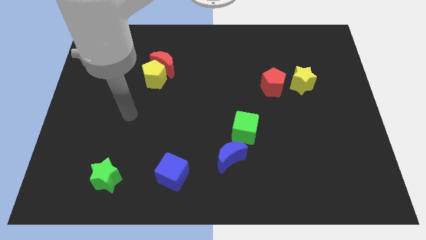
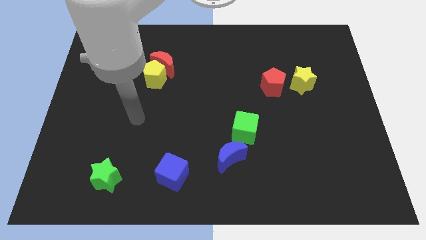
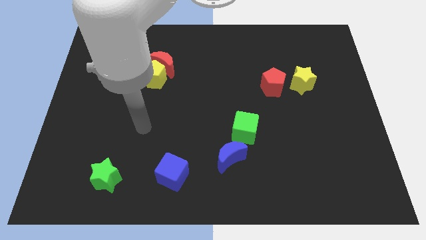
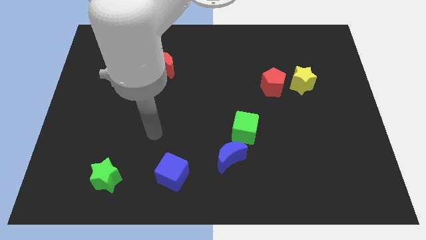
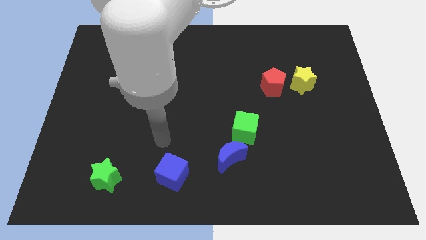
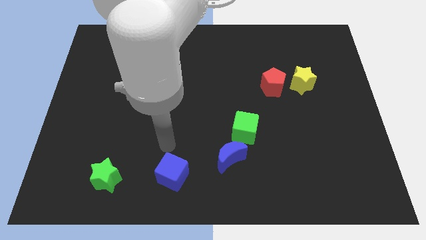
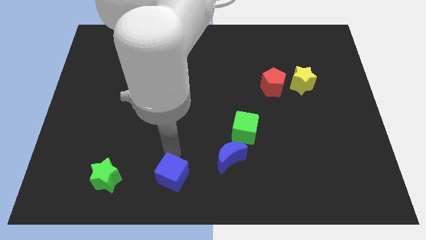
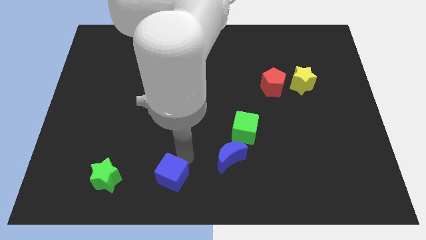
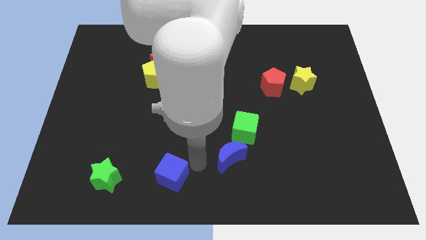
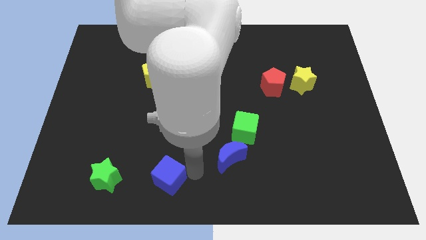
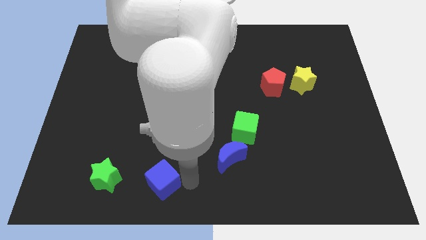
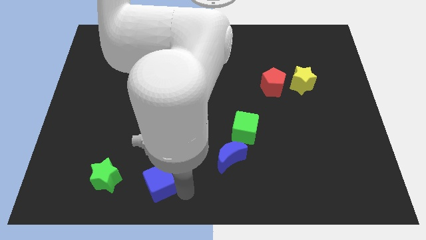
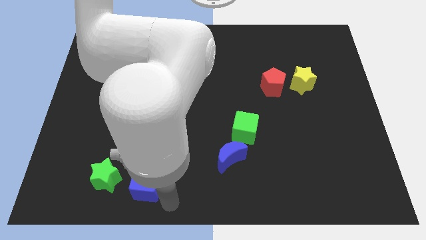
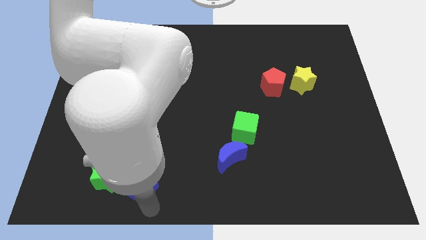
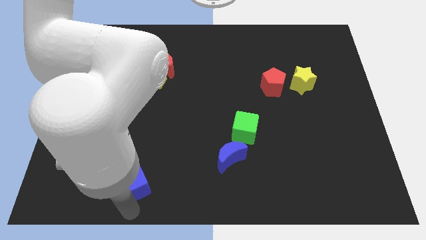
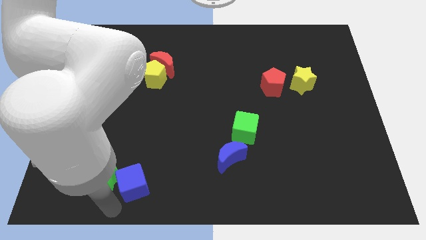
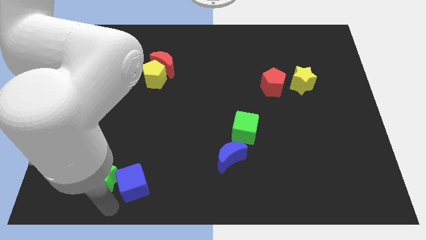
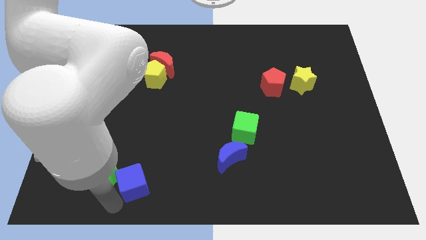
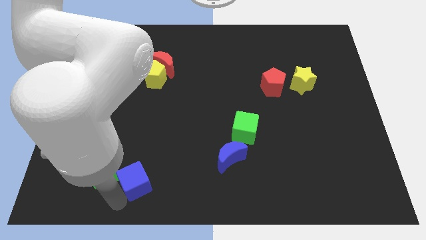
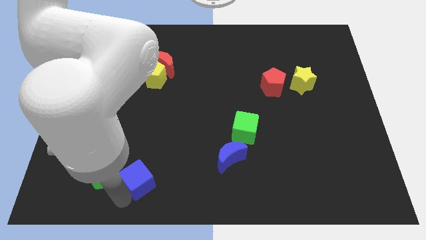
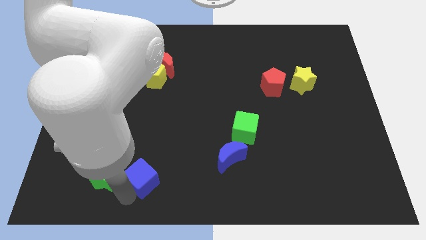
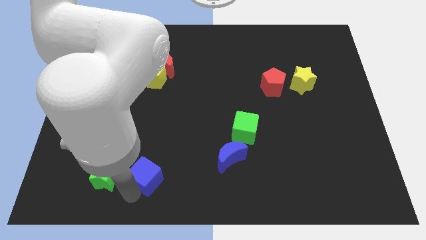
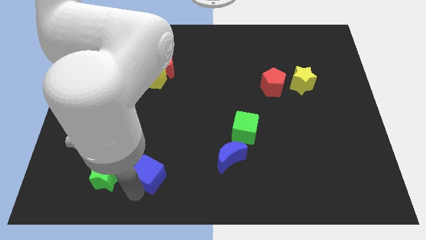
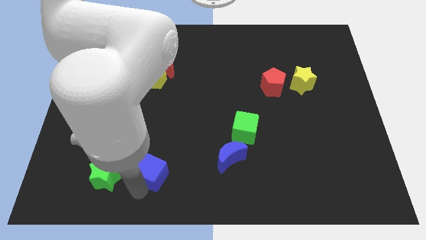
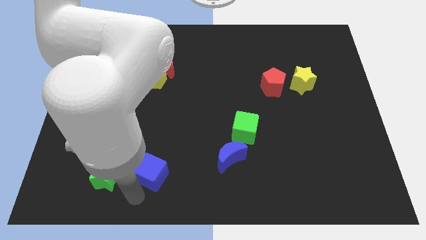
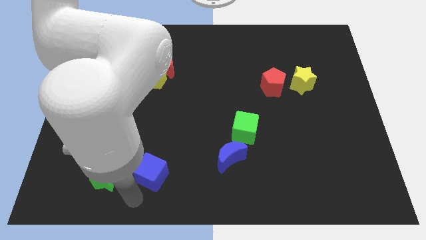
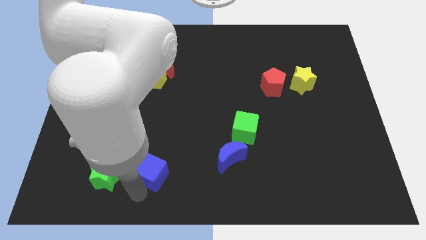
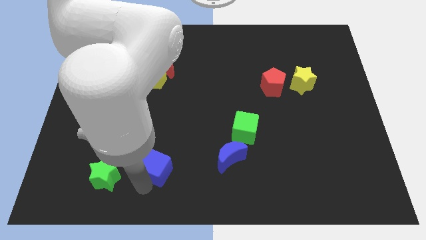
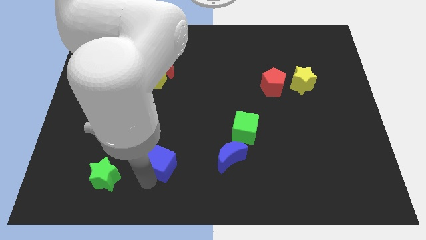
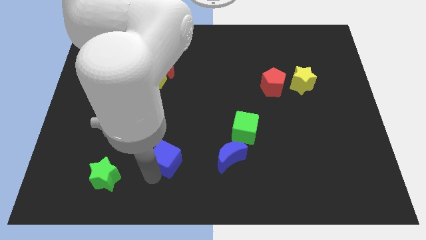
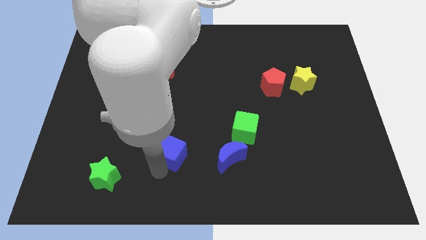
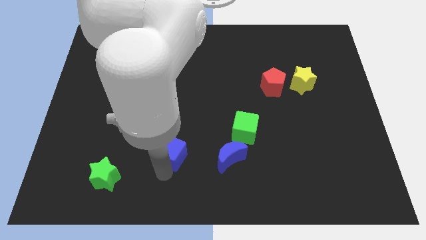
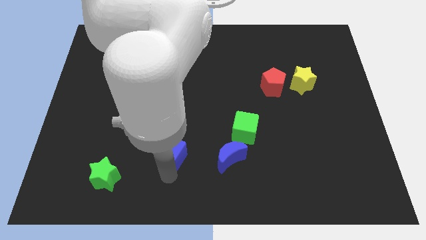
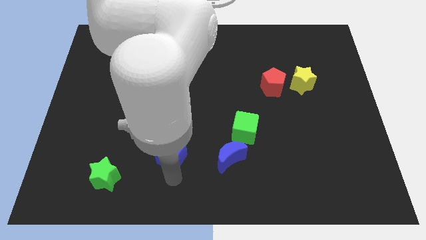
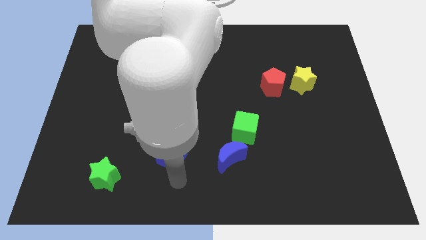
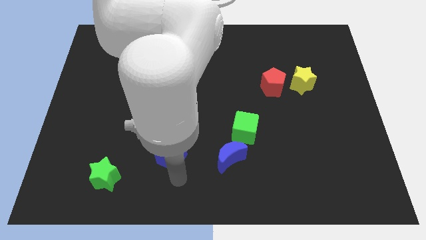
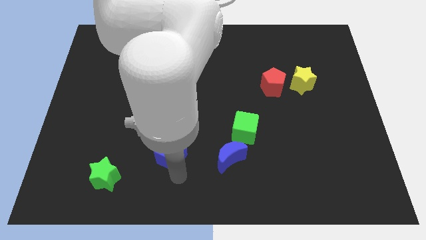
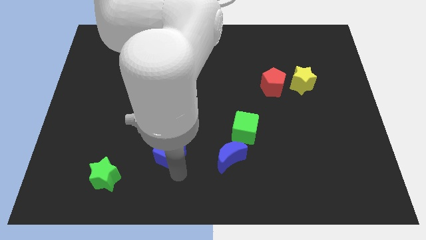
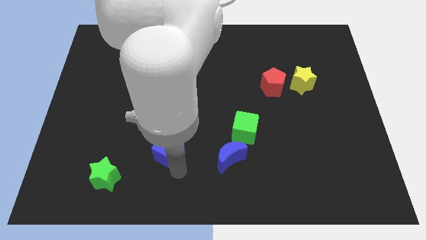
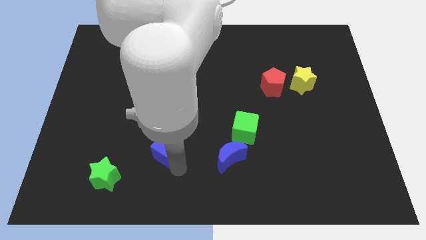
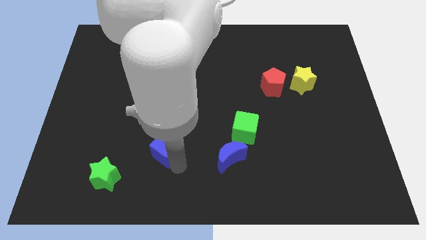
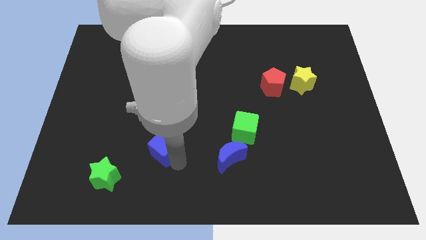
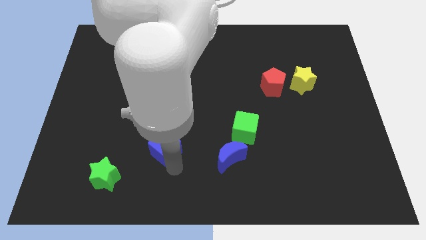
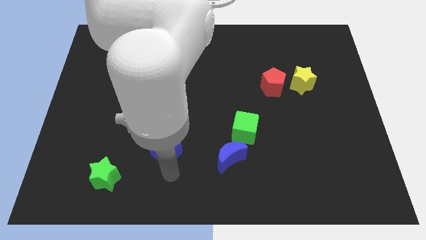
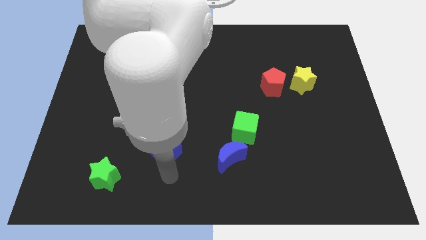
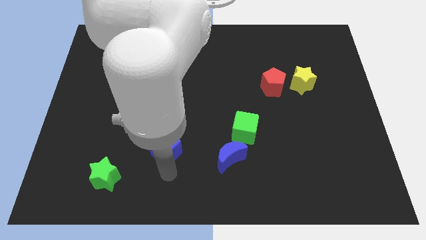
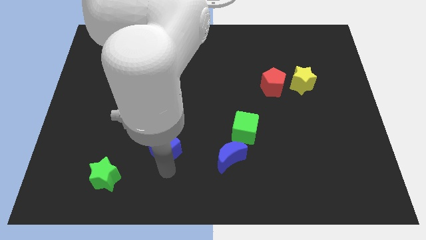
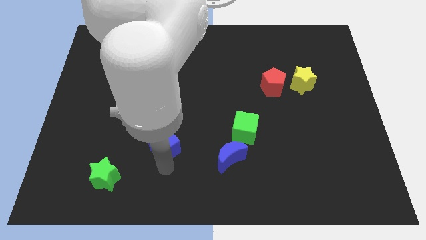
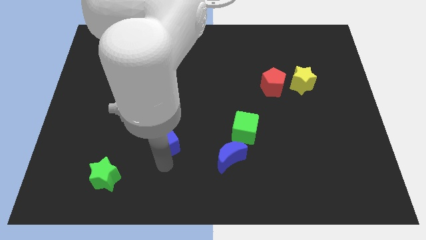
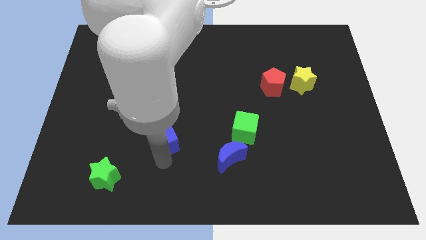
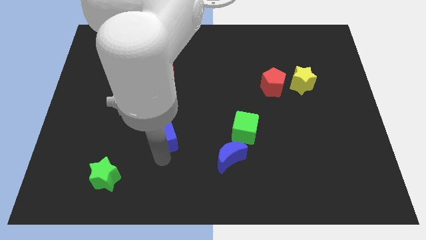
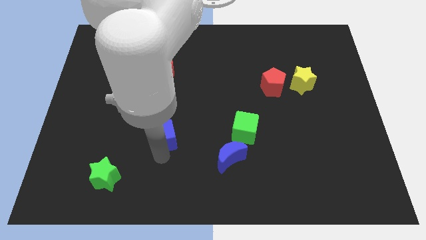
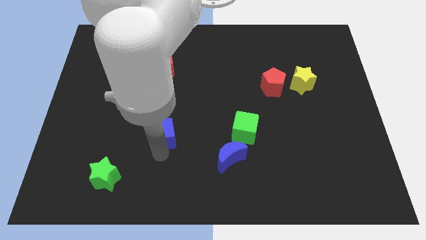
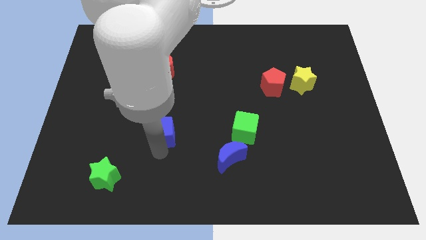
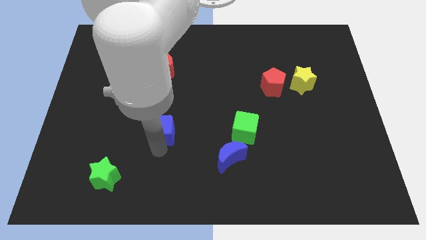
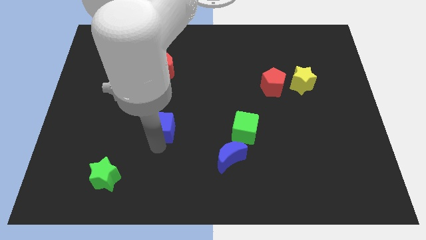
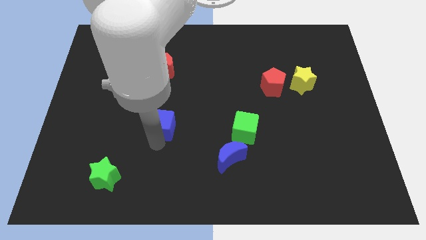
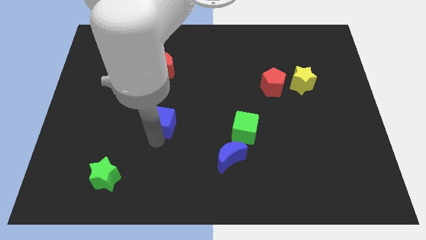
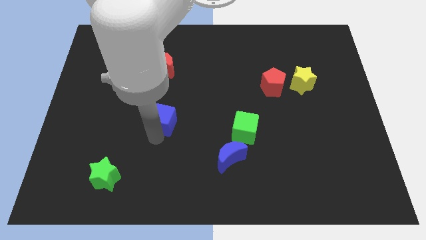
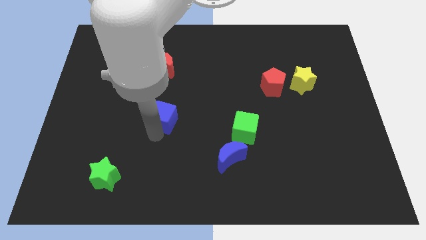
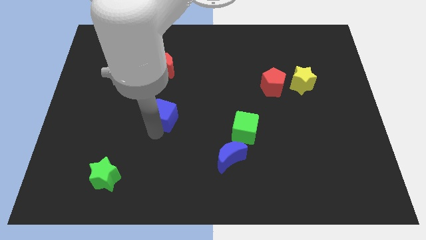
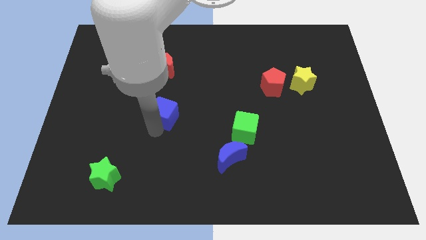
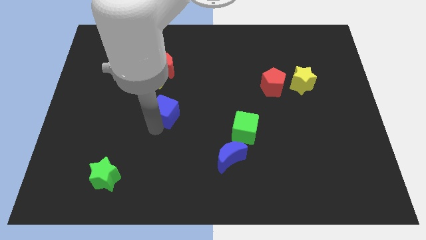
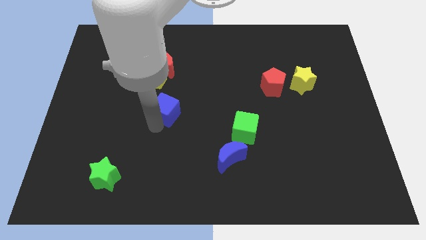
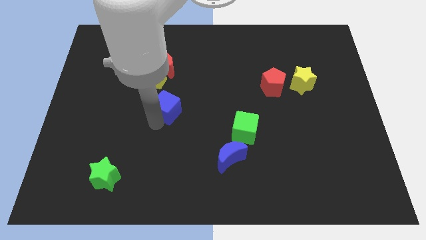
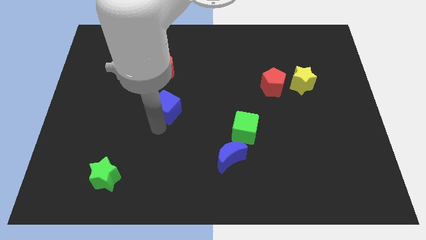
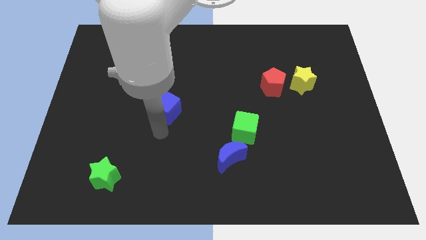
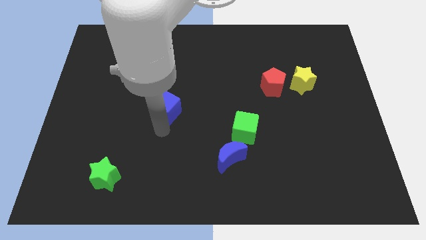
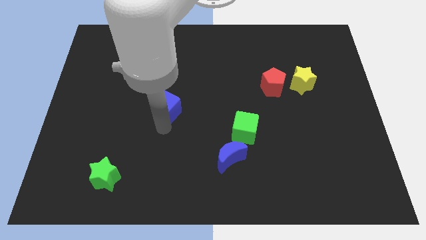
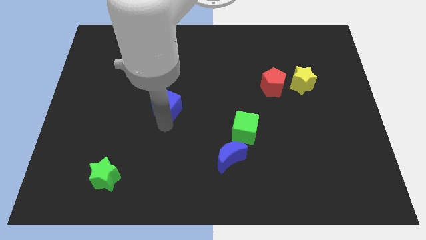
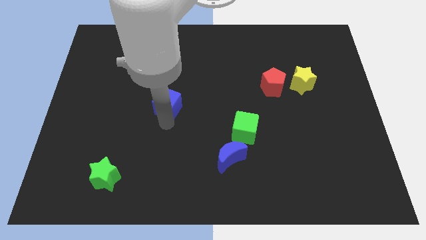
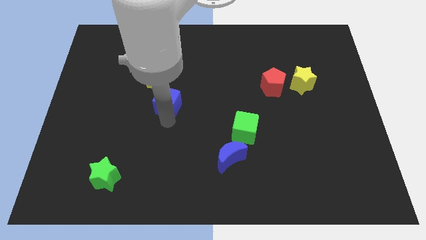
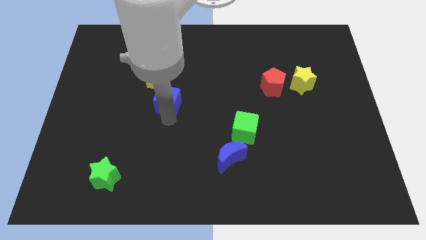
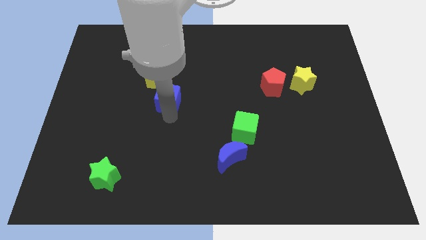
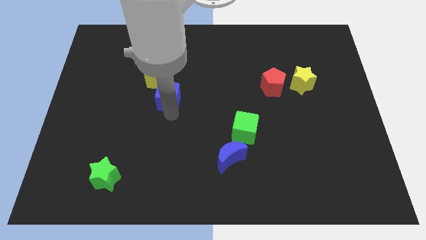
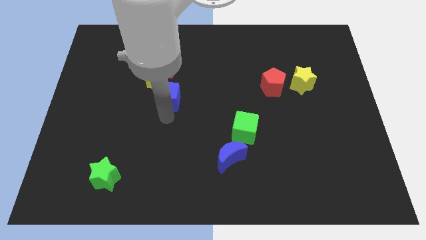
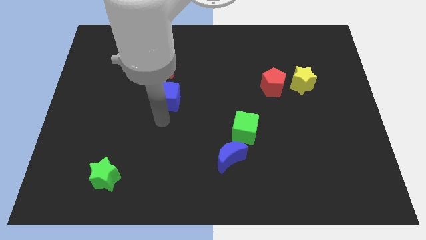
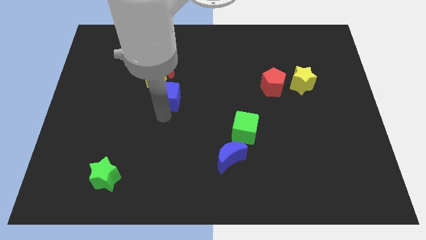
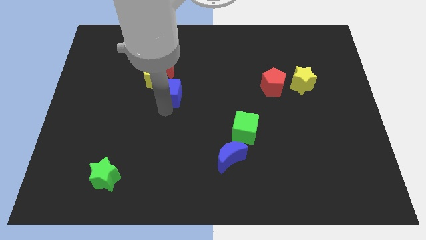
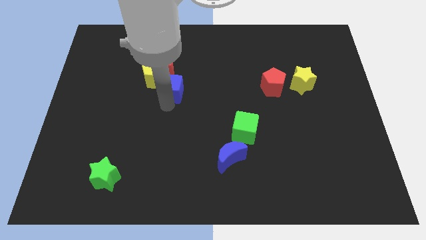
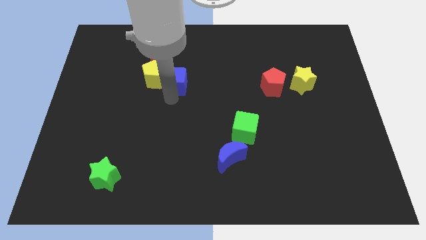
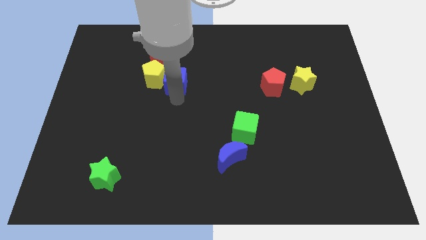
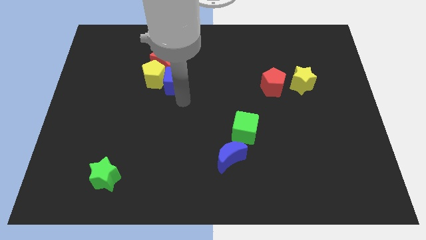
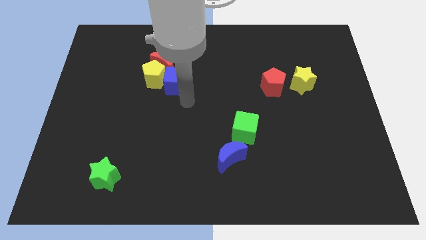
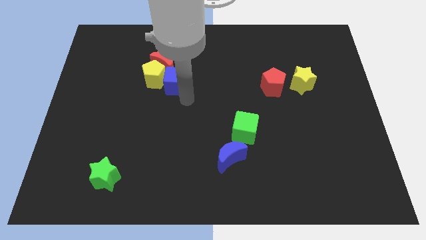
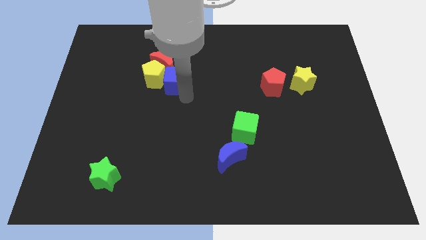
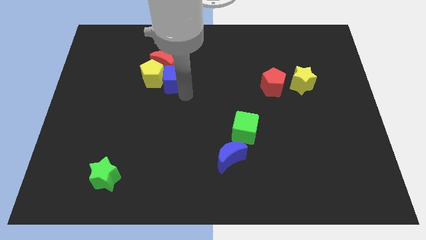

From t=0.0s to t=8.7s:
push the blue cube to the red moon
